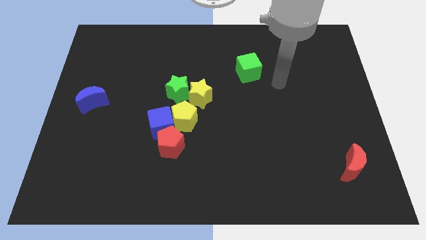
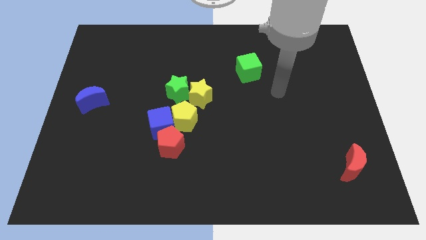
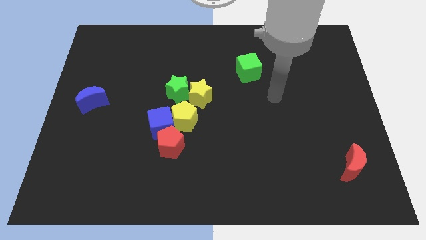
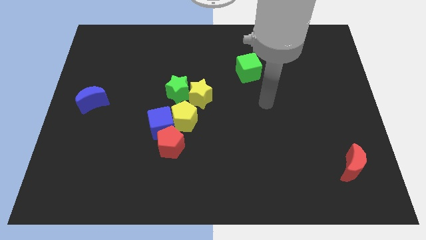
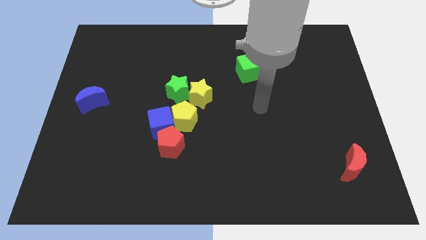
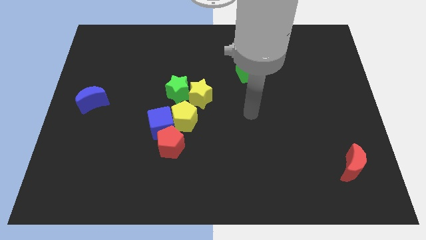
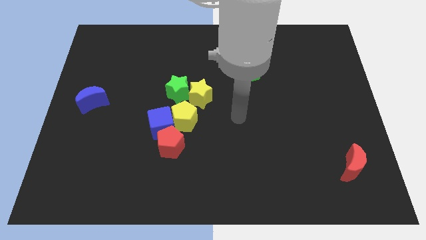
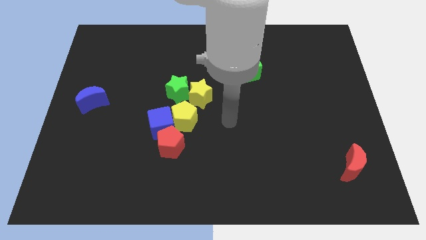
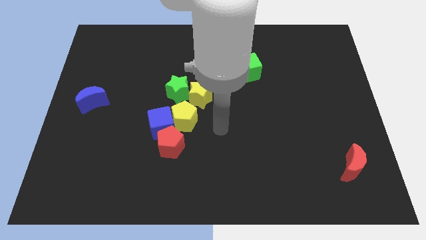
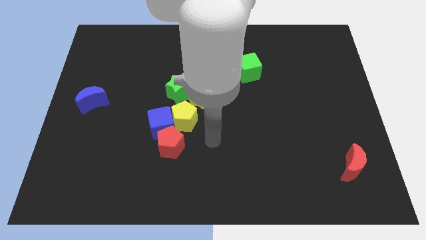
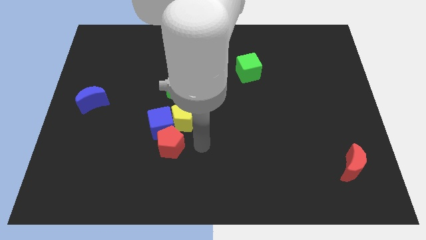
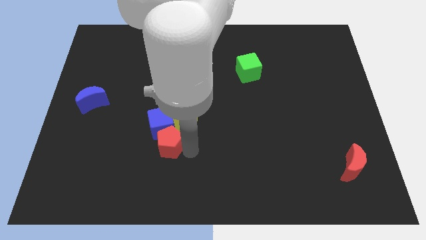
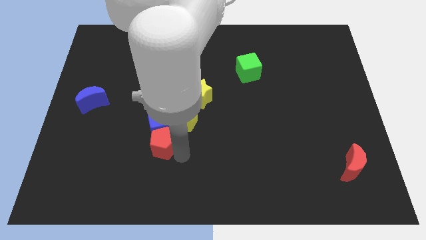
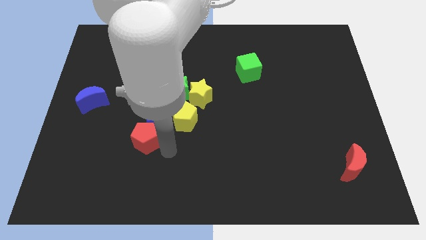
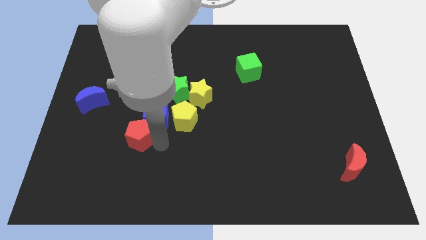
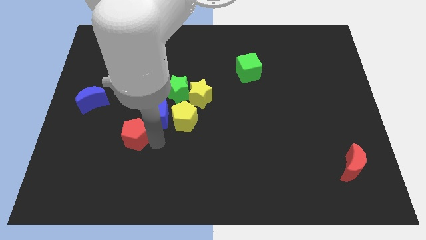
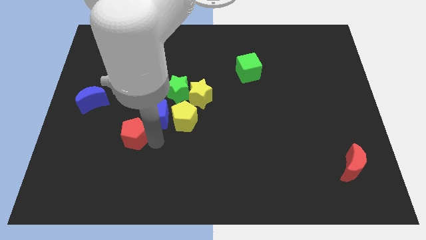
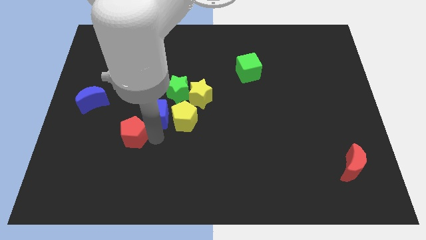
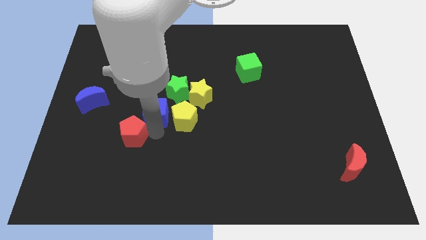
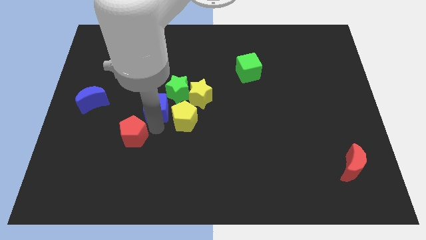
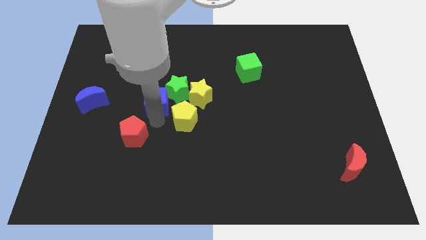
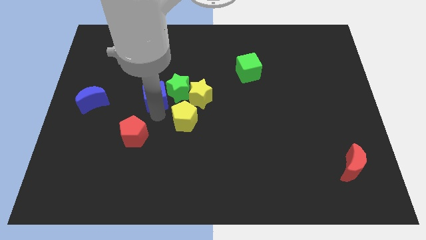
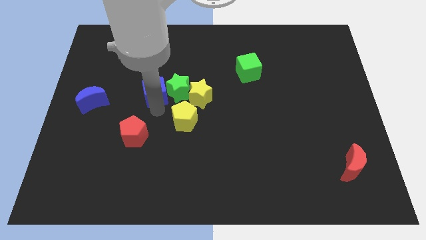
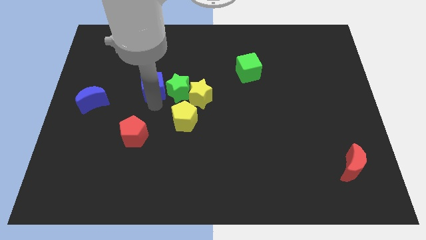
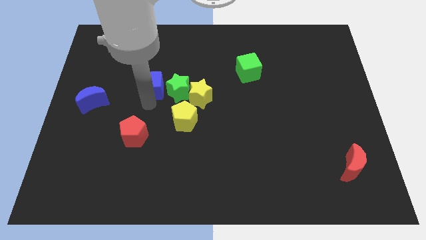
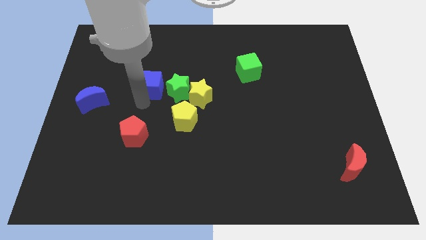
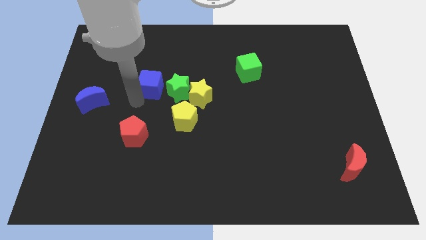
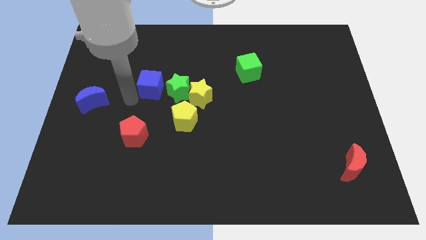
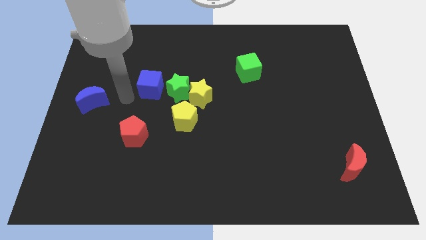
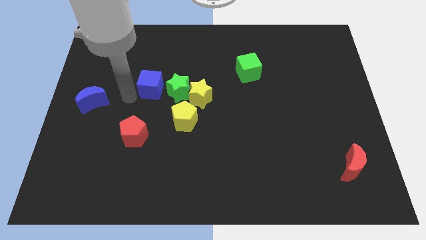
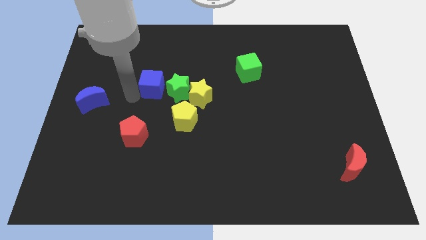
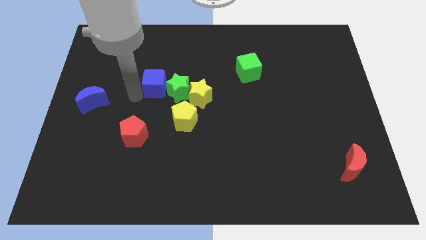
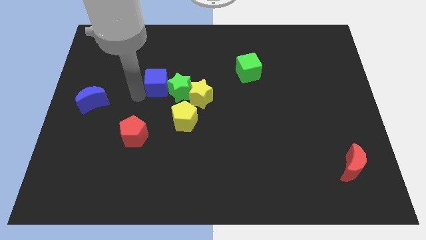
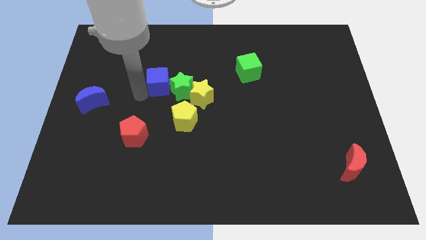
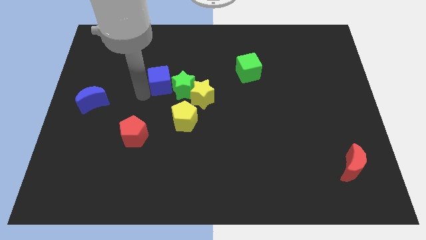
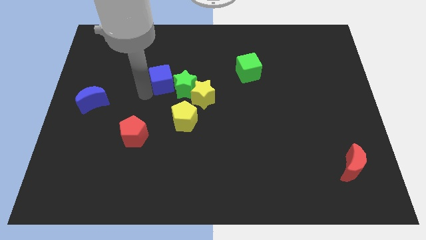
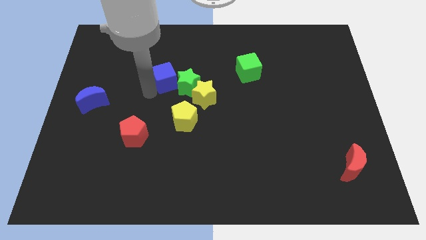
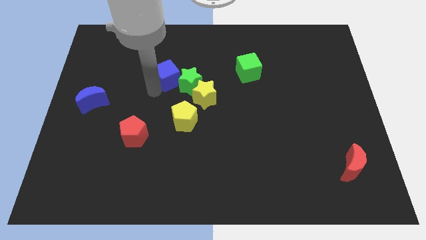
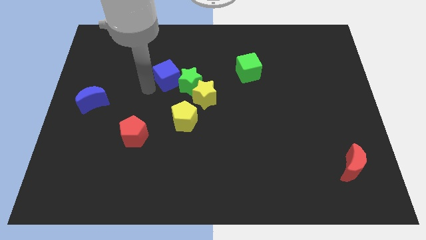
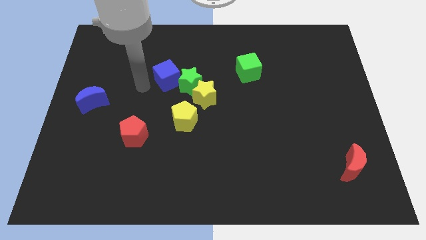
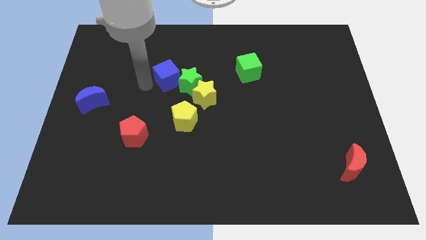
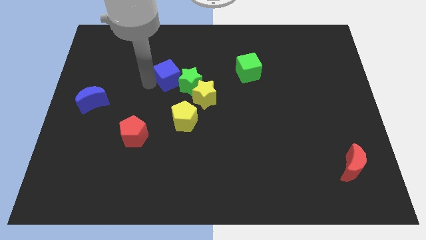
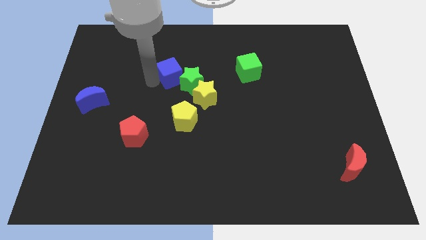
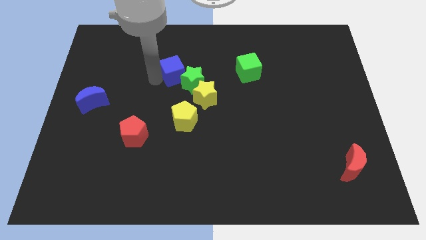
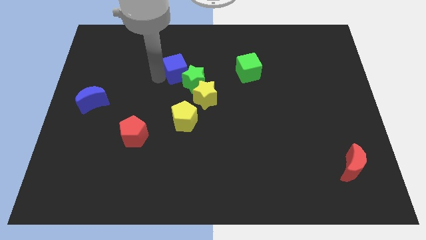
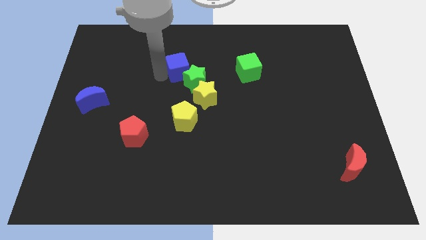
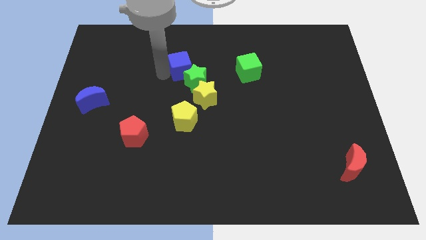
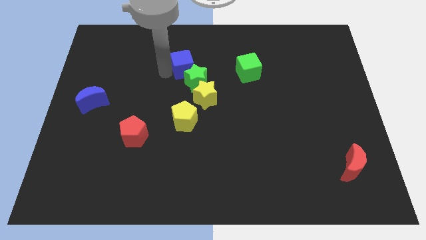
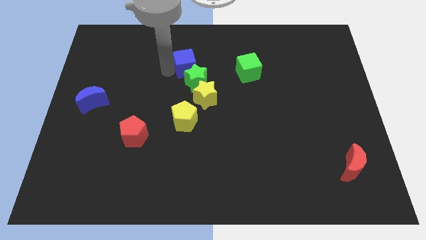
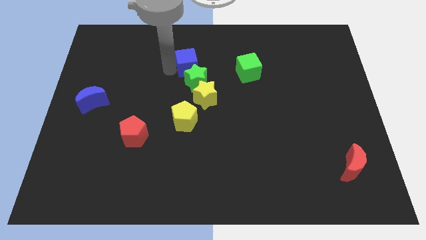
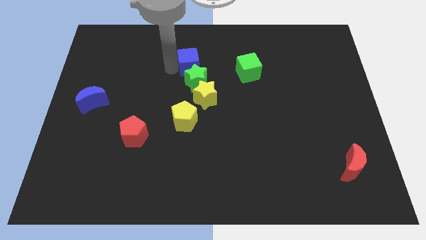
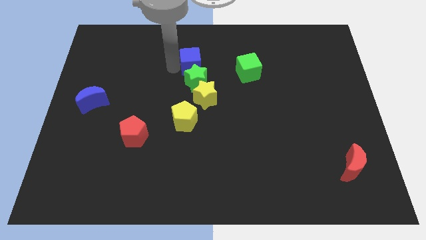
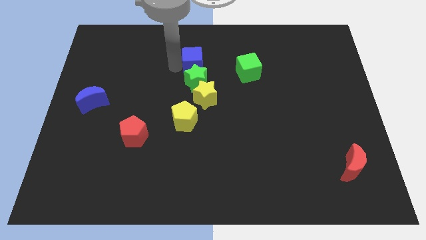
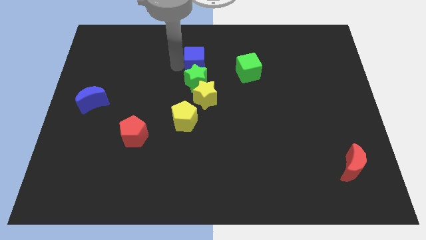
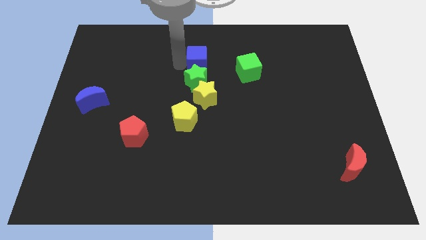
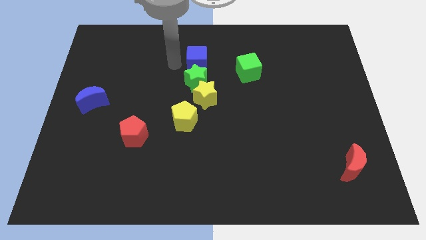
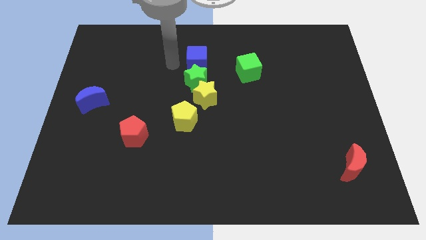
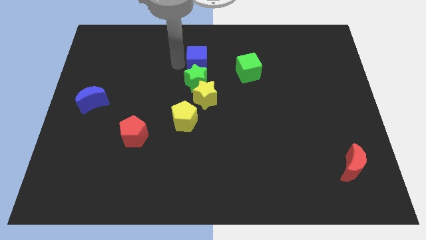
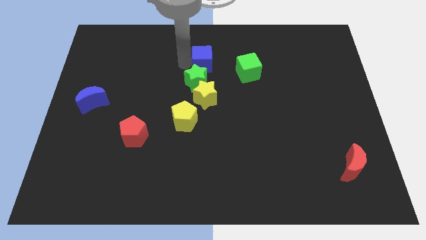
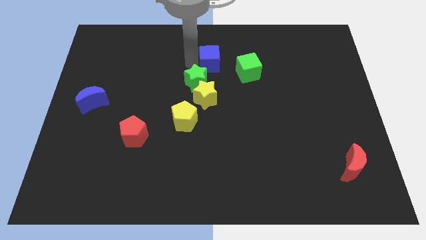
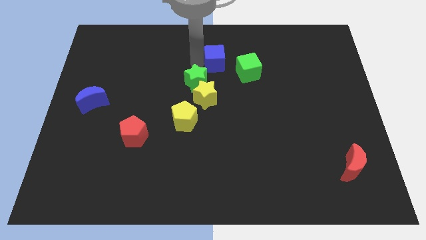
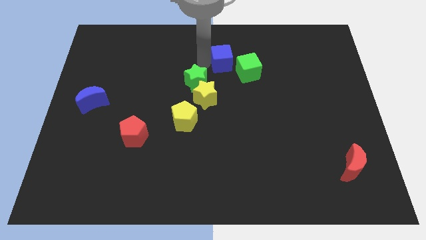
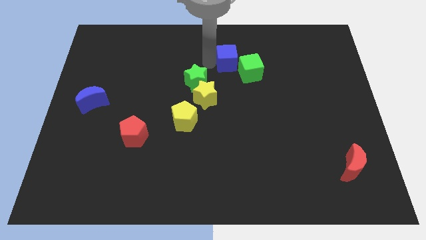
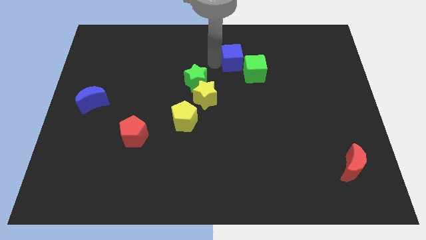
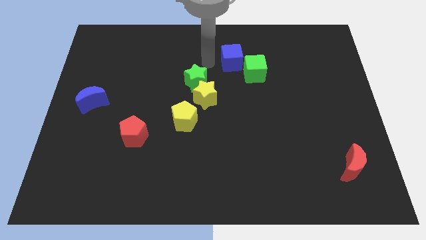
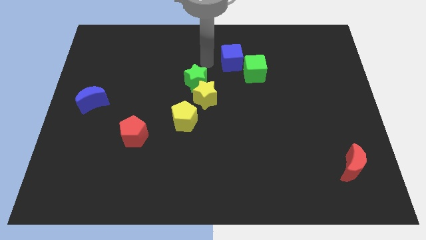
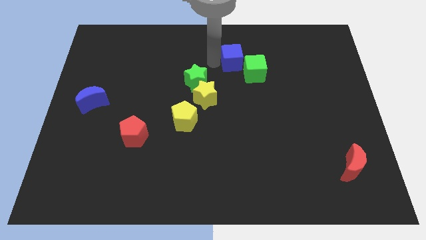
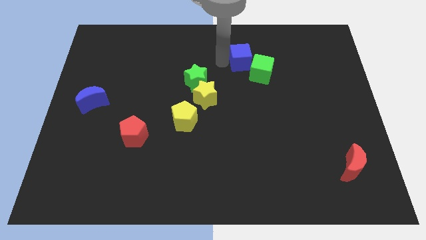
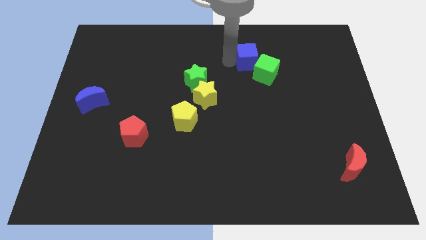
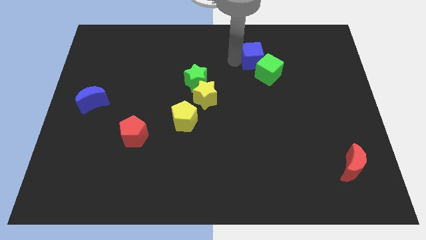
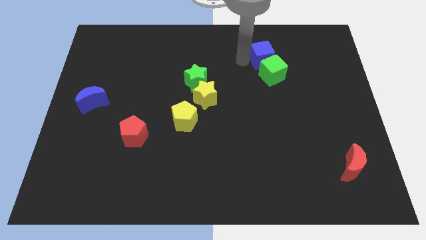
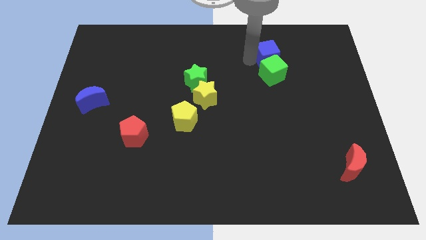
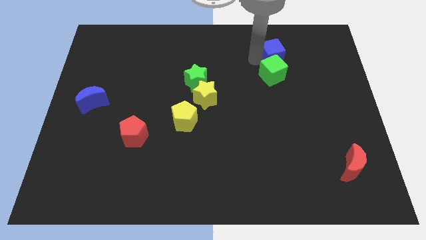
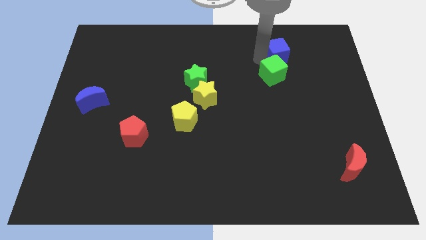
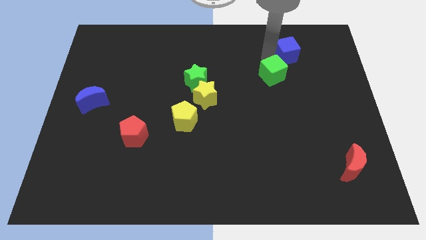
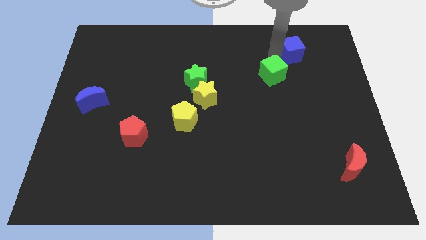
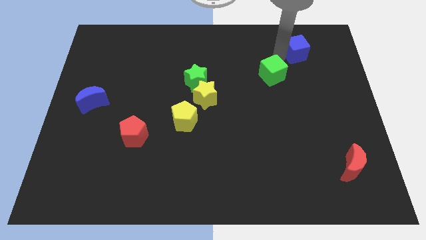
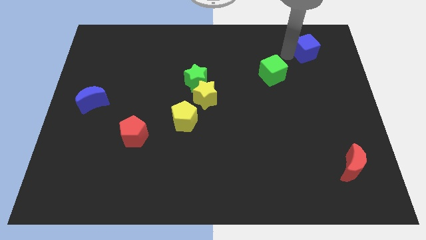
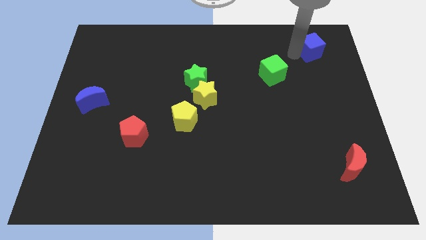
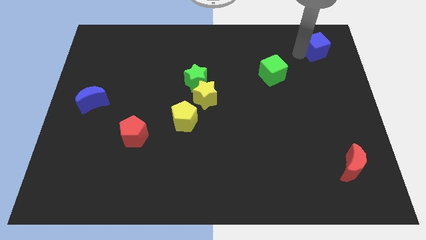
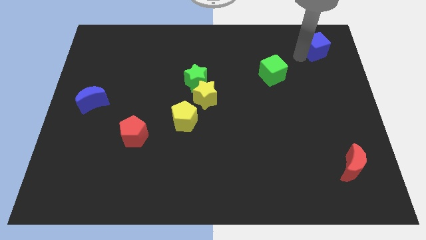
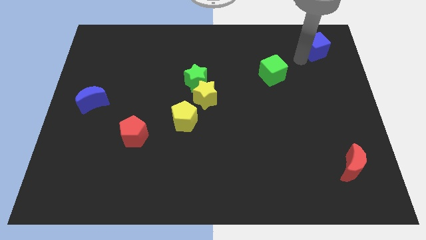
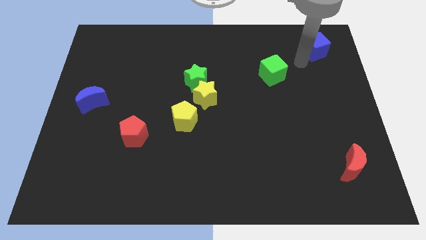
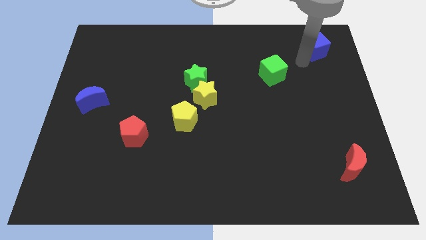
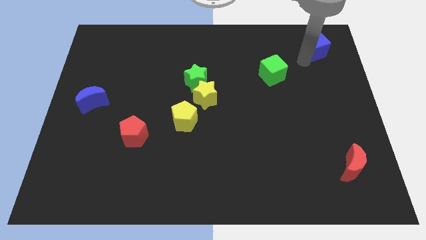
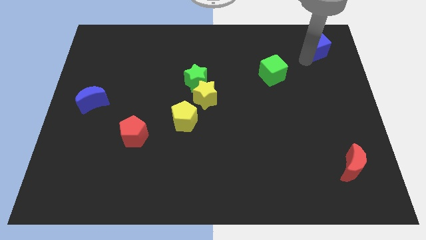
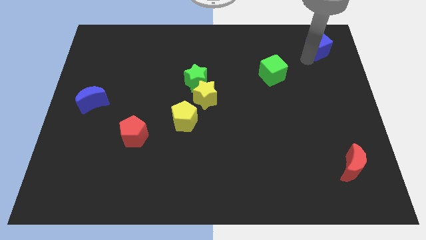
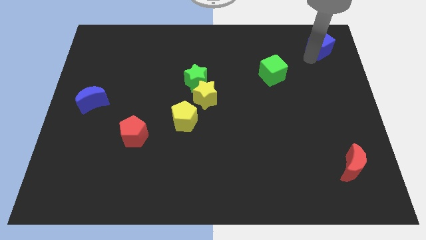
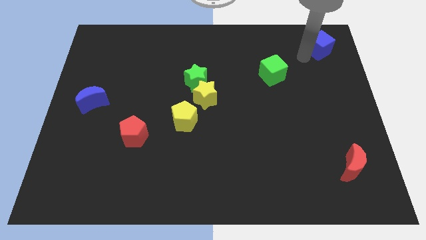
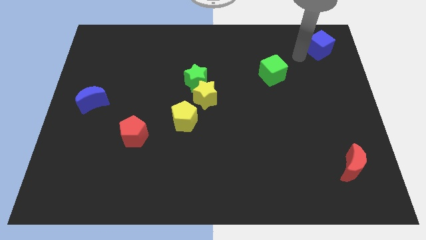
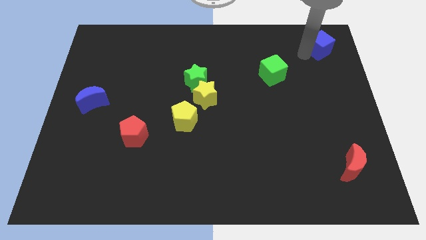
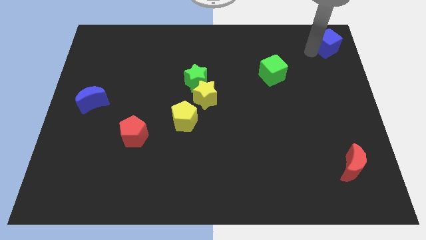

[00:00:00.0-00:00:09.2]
put the blue cube to the top right of the board
